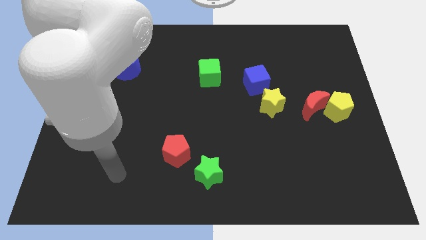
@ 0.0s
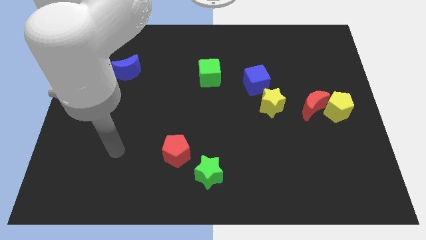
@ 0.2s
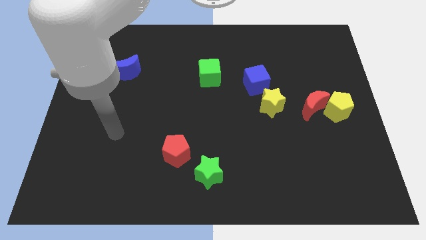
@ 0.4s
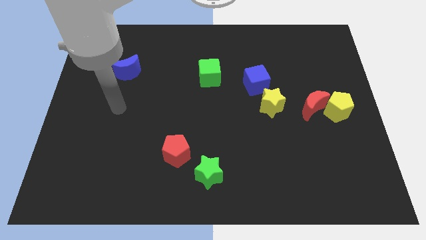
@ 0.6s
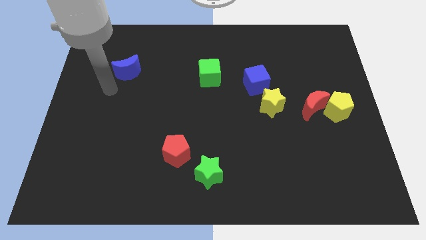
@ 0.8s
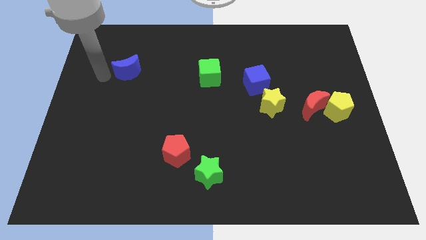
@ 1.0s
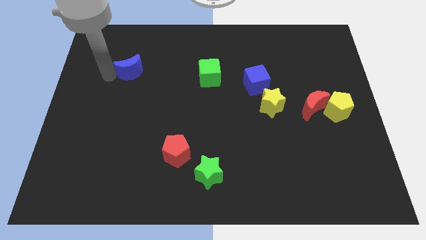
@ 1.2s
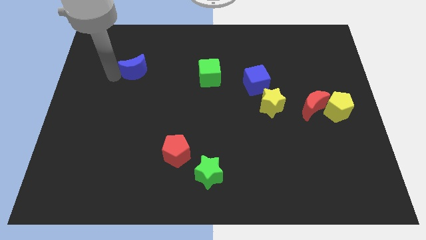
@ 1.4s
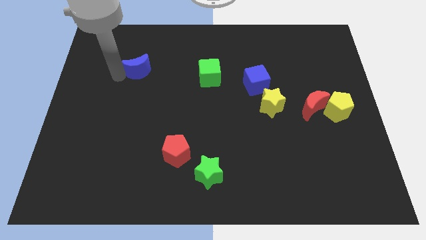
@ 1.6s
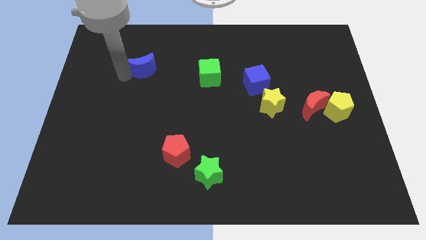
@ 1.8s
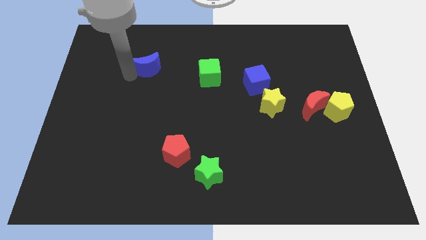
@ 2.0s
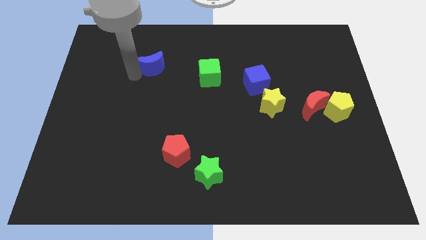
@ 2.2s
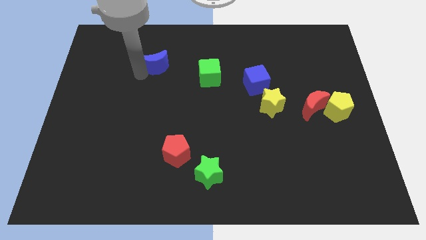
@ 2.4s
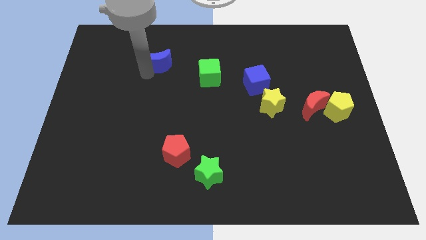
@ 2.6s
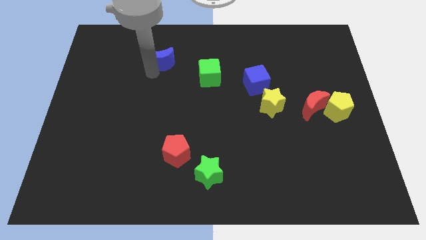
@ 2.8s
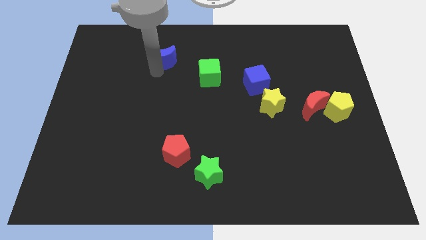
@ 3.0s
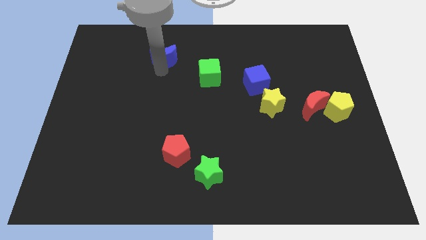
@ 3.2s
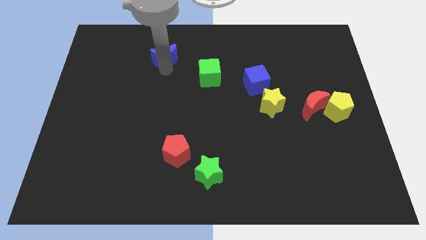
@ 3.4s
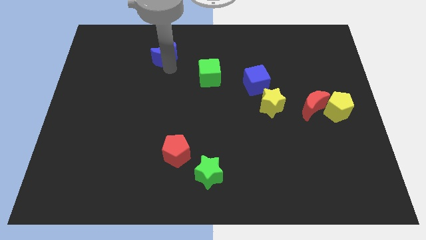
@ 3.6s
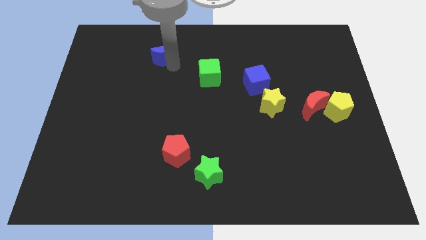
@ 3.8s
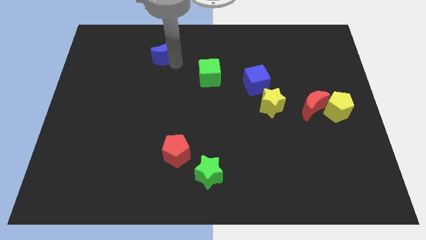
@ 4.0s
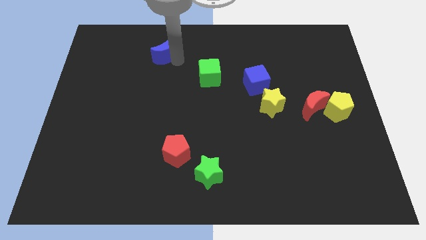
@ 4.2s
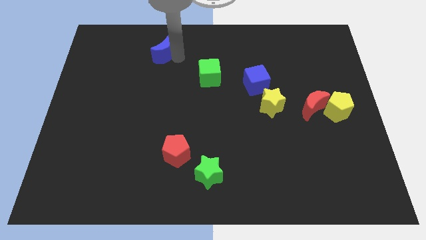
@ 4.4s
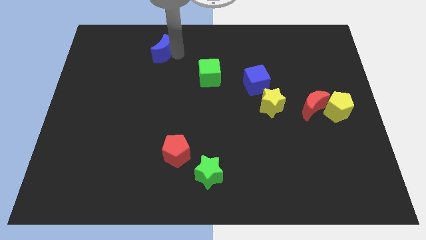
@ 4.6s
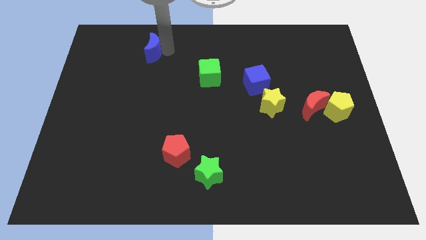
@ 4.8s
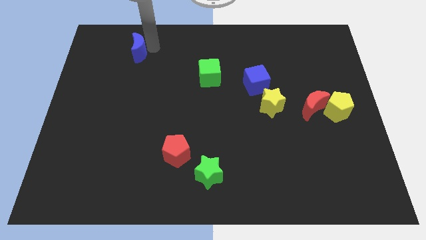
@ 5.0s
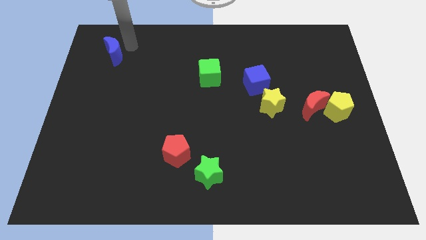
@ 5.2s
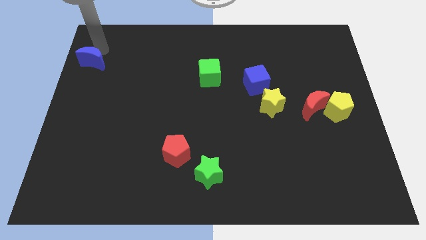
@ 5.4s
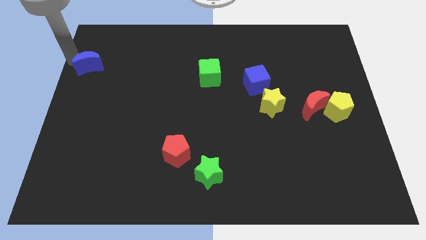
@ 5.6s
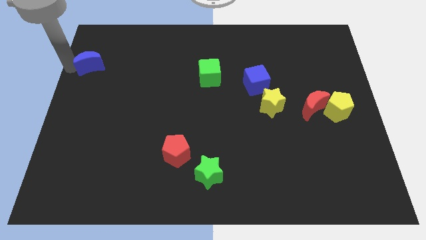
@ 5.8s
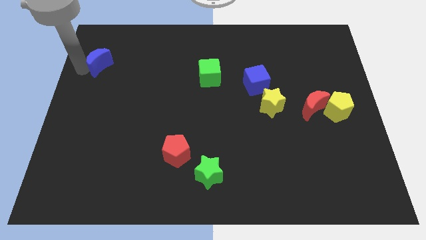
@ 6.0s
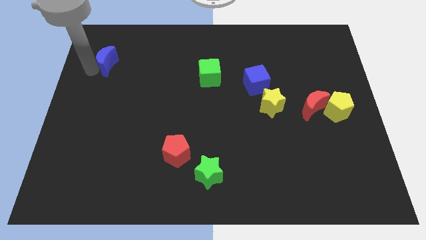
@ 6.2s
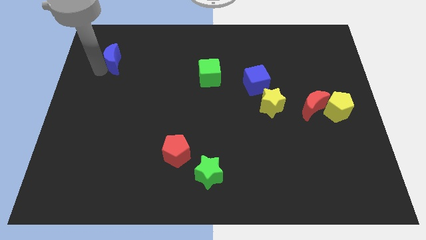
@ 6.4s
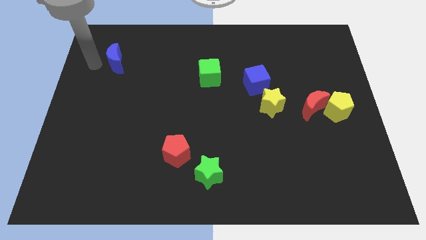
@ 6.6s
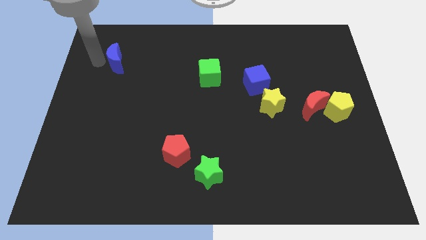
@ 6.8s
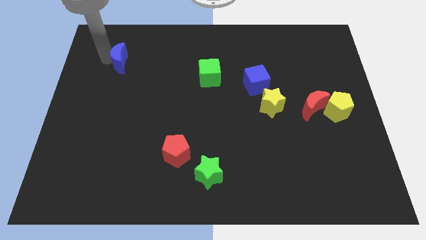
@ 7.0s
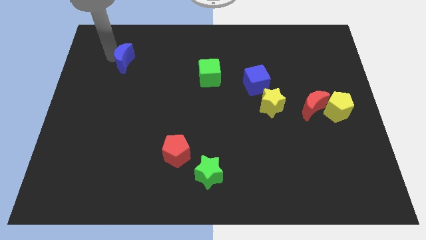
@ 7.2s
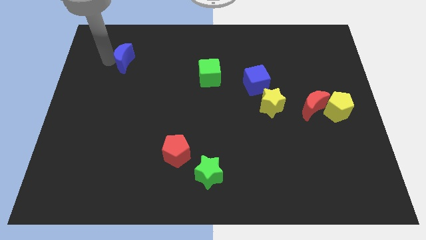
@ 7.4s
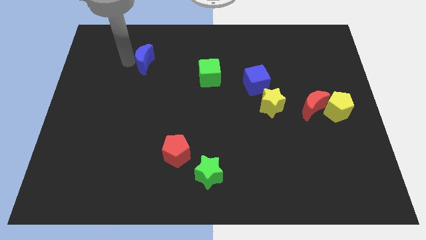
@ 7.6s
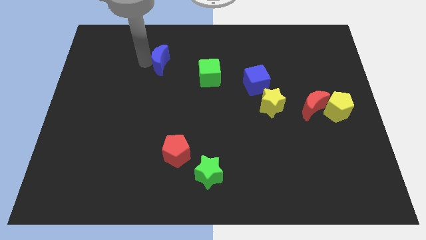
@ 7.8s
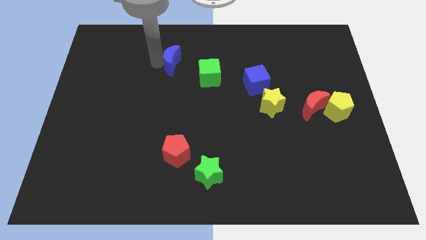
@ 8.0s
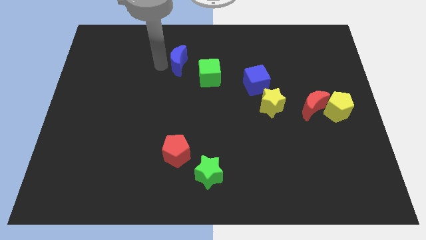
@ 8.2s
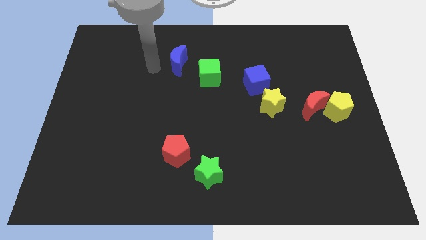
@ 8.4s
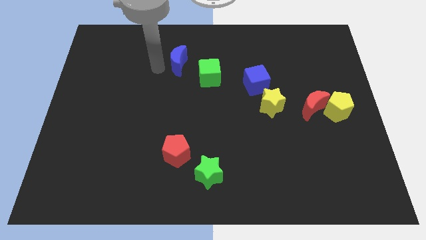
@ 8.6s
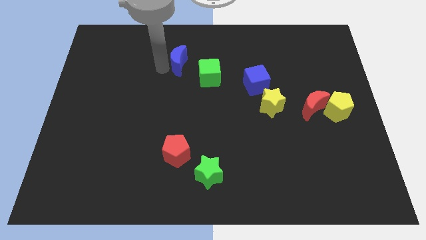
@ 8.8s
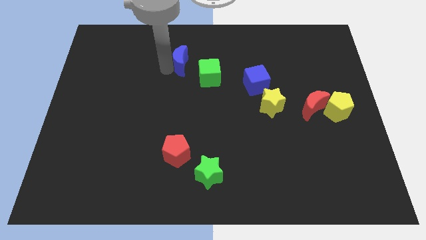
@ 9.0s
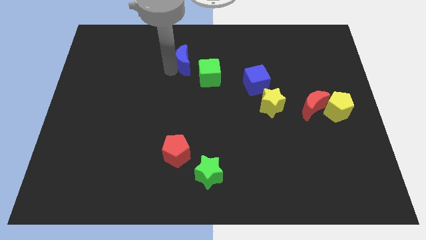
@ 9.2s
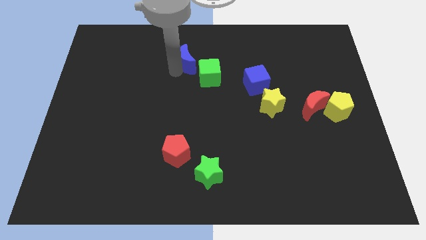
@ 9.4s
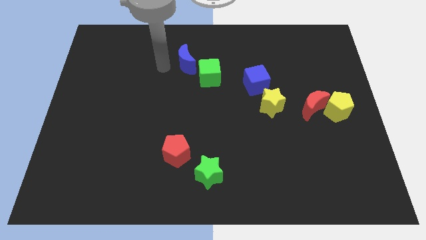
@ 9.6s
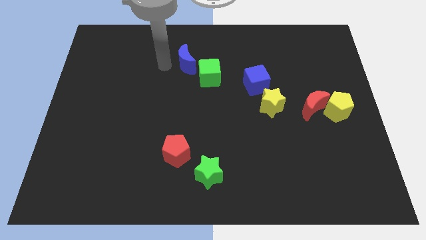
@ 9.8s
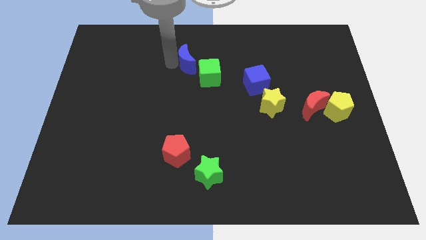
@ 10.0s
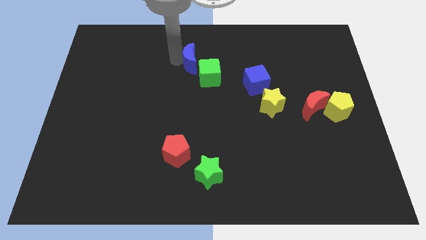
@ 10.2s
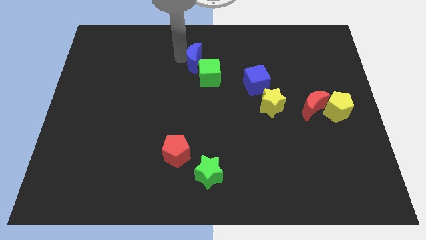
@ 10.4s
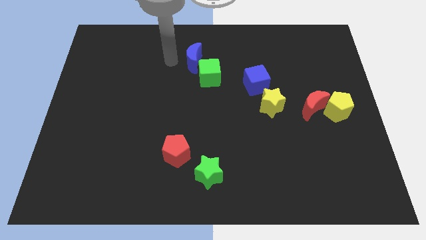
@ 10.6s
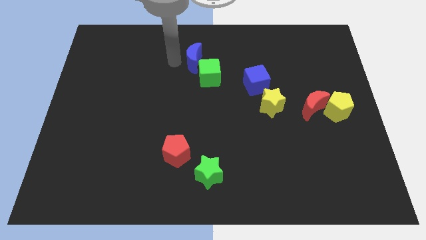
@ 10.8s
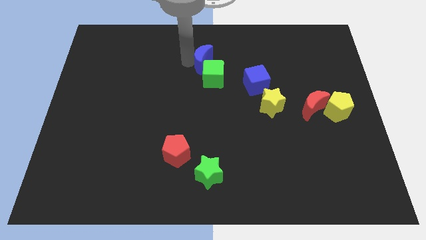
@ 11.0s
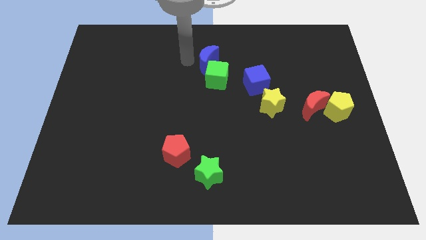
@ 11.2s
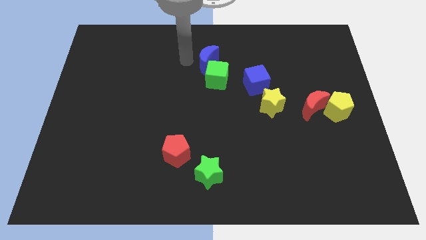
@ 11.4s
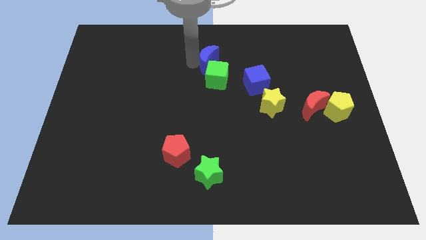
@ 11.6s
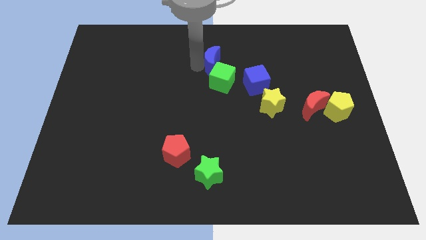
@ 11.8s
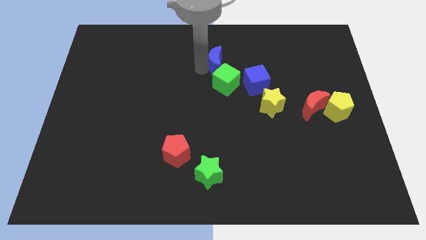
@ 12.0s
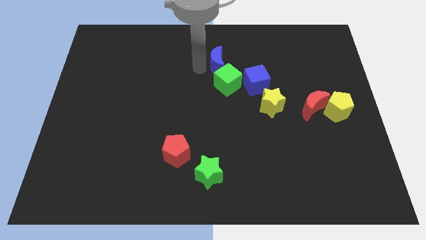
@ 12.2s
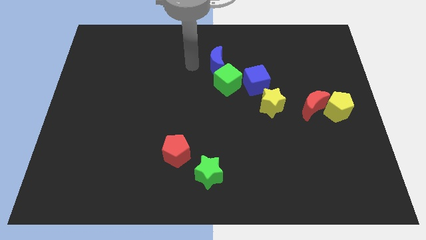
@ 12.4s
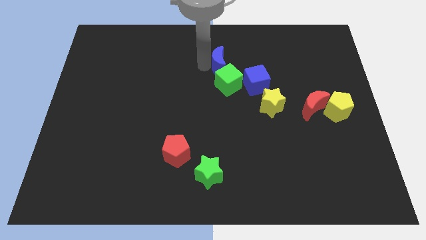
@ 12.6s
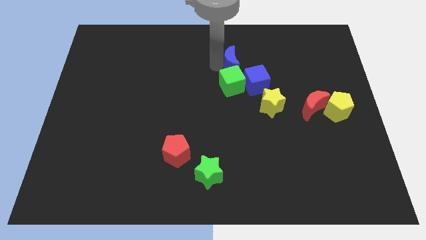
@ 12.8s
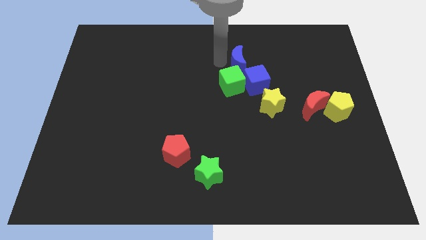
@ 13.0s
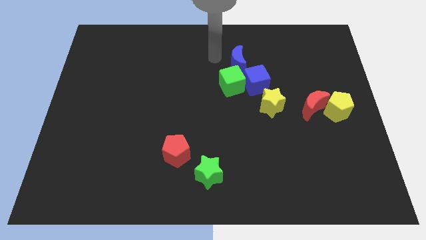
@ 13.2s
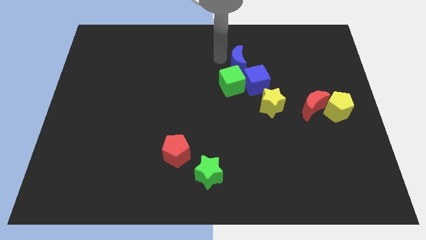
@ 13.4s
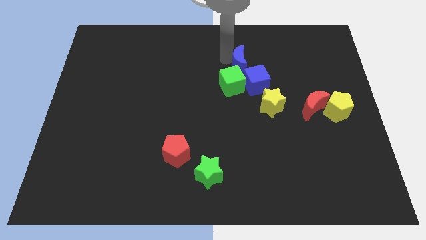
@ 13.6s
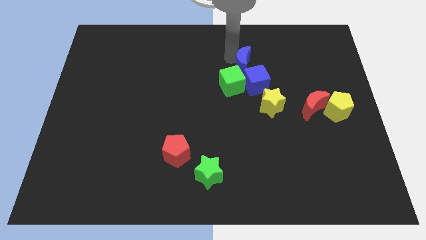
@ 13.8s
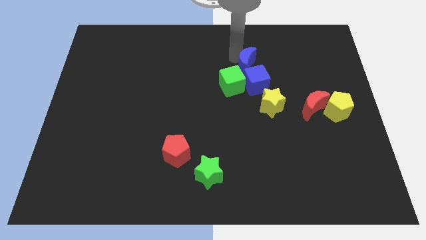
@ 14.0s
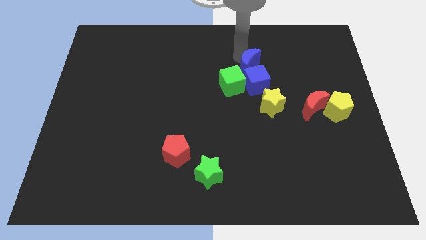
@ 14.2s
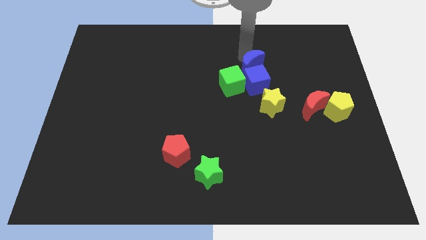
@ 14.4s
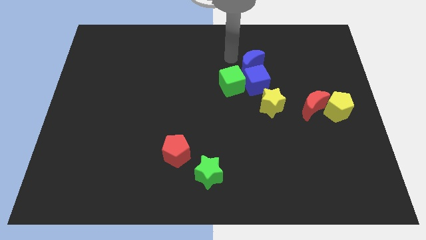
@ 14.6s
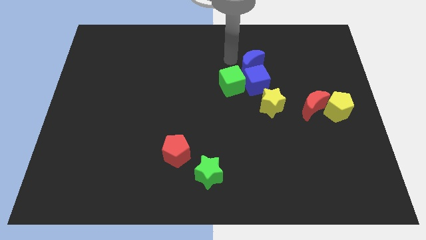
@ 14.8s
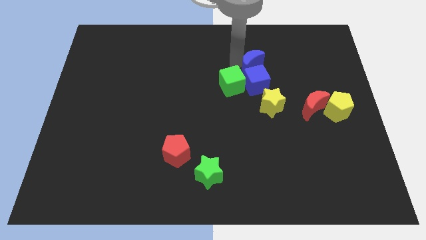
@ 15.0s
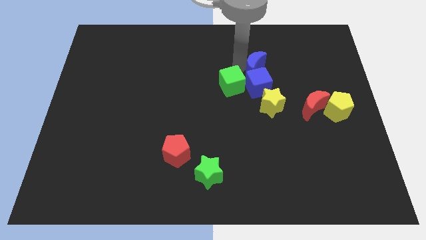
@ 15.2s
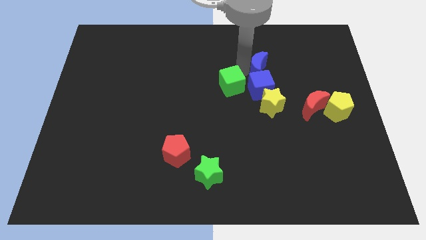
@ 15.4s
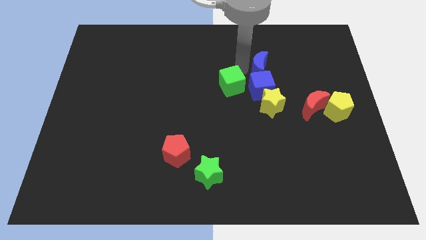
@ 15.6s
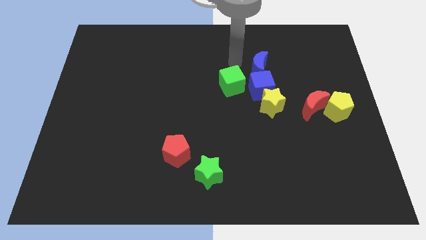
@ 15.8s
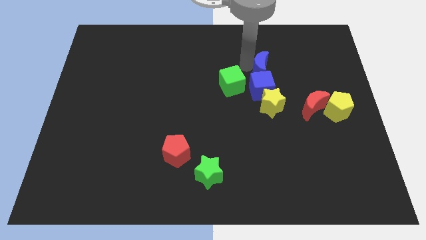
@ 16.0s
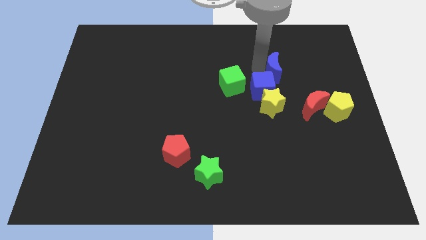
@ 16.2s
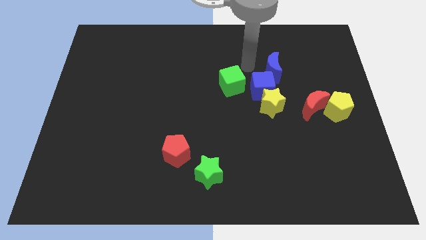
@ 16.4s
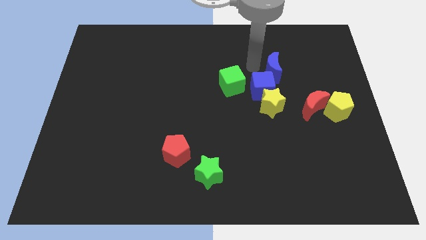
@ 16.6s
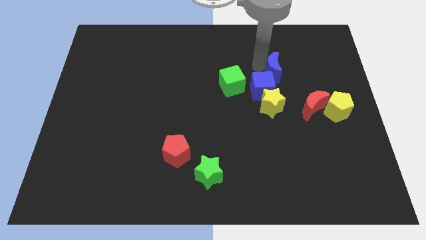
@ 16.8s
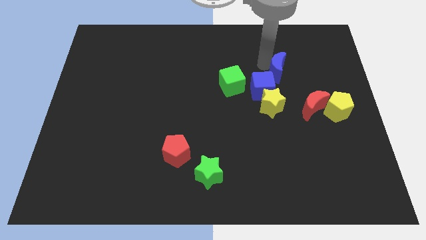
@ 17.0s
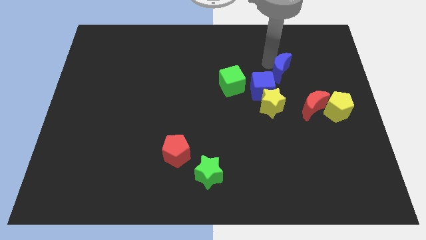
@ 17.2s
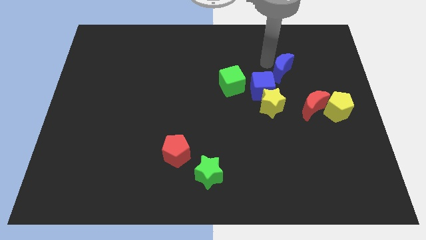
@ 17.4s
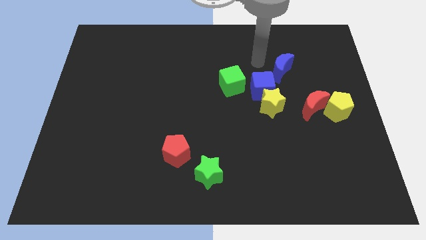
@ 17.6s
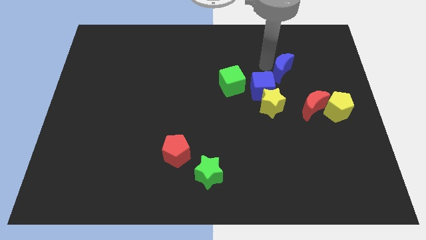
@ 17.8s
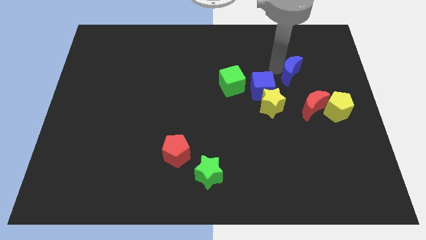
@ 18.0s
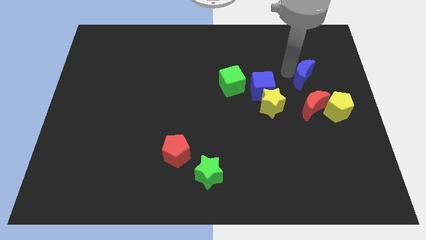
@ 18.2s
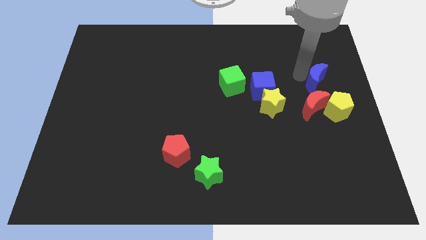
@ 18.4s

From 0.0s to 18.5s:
slide the blue moon to the top right side of the red moon
